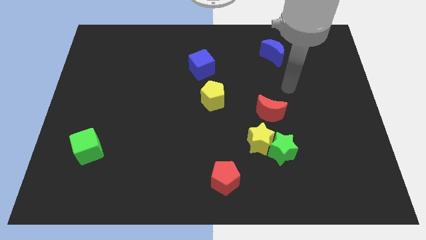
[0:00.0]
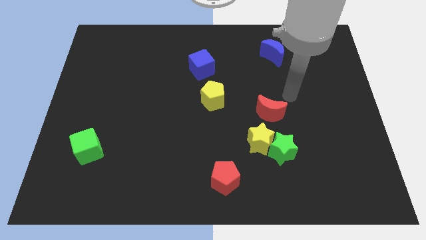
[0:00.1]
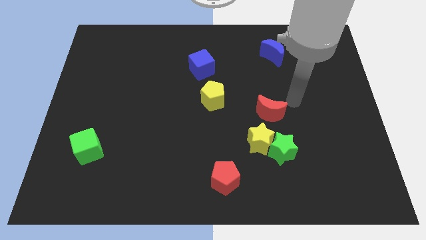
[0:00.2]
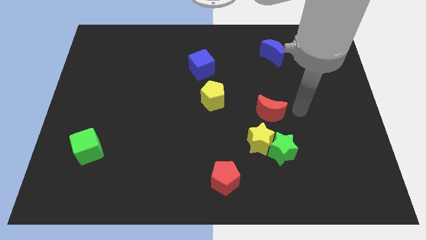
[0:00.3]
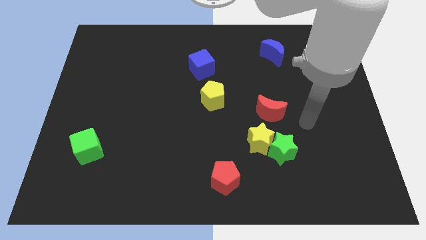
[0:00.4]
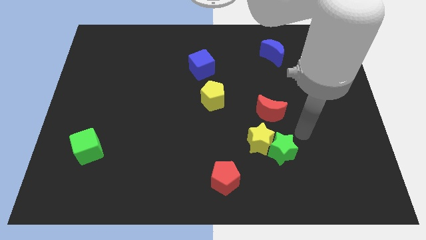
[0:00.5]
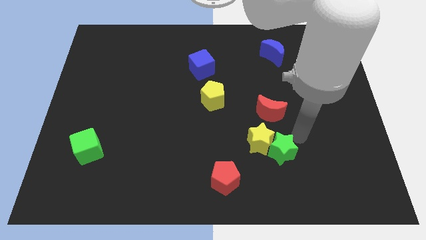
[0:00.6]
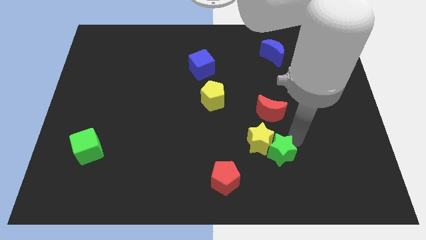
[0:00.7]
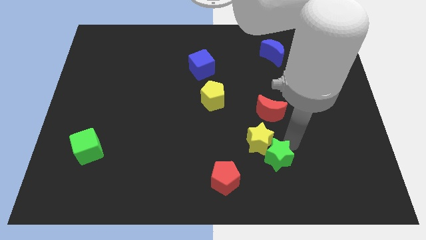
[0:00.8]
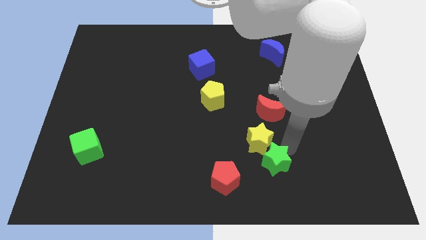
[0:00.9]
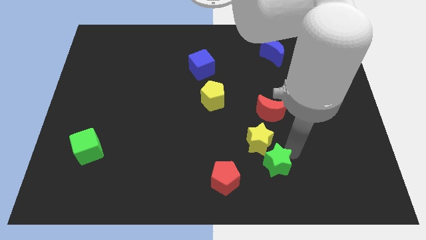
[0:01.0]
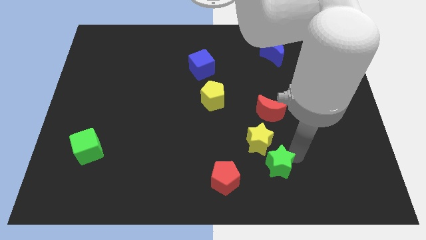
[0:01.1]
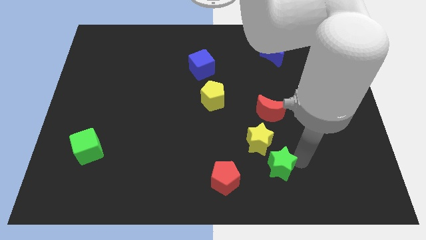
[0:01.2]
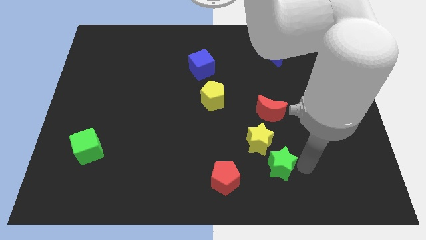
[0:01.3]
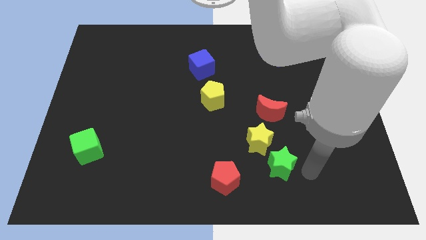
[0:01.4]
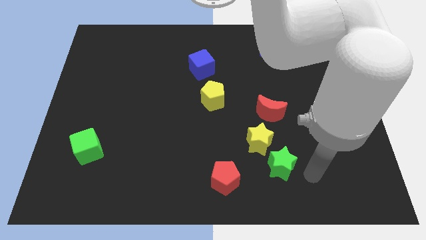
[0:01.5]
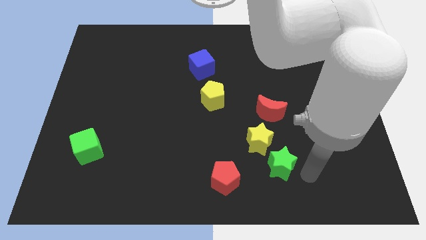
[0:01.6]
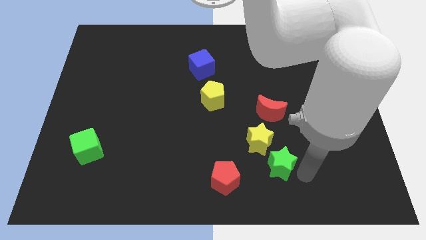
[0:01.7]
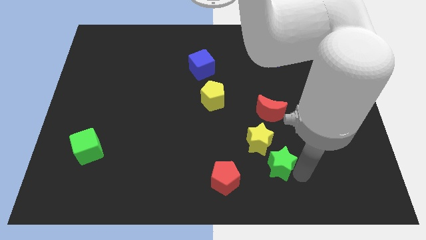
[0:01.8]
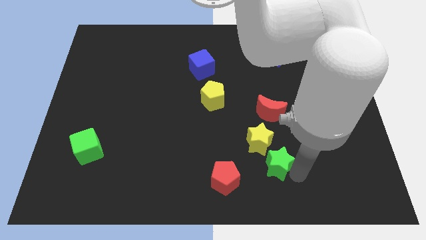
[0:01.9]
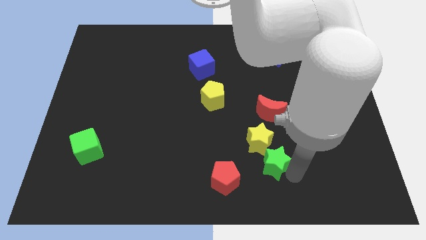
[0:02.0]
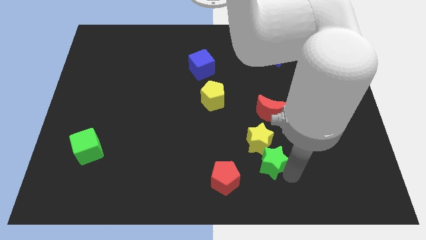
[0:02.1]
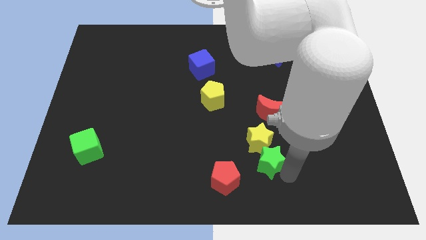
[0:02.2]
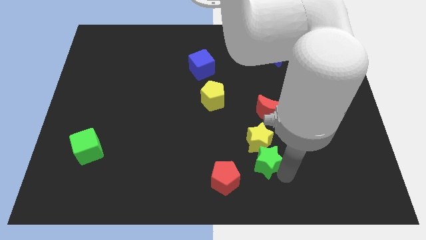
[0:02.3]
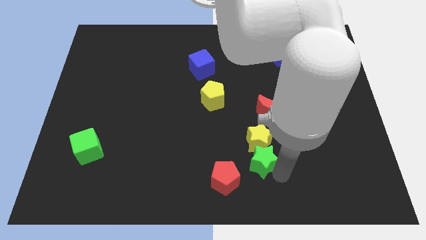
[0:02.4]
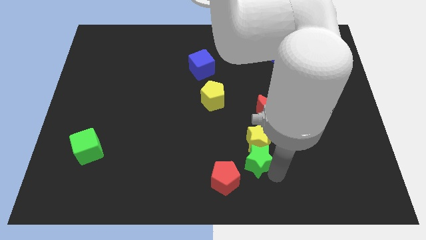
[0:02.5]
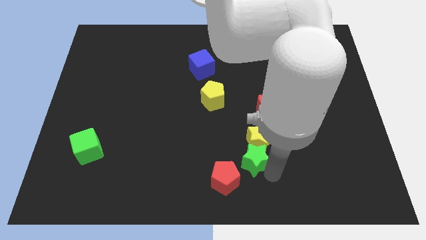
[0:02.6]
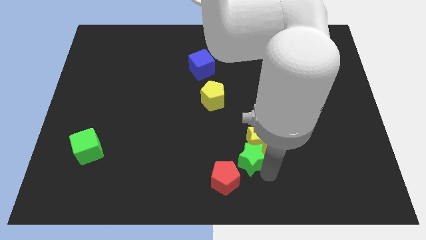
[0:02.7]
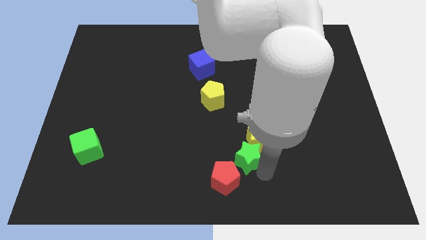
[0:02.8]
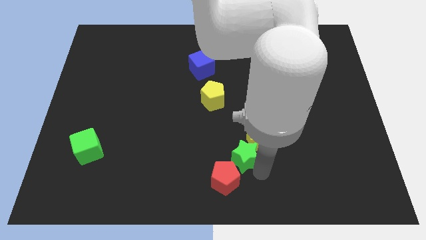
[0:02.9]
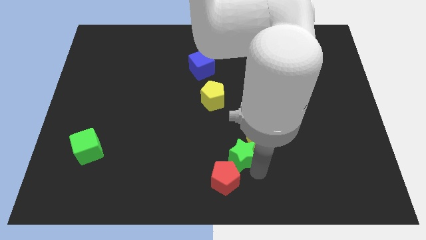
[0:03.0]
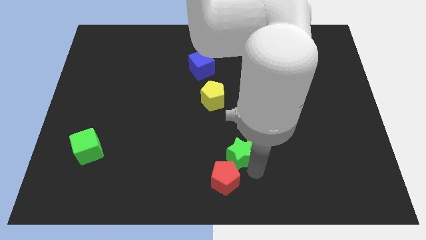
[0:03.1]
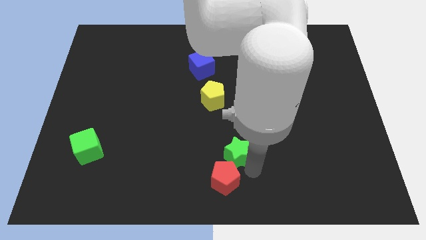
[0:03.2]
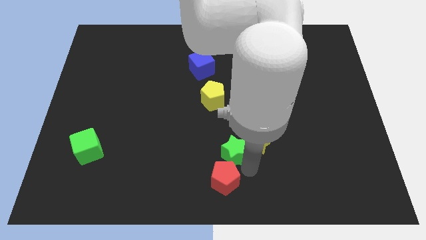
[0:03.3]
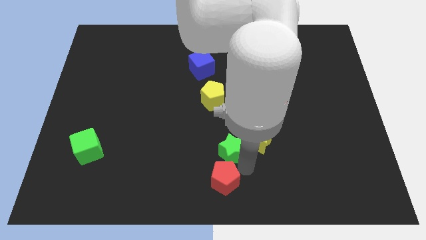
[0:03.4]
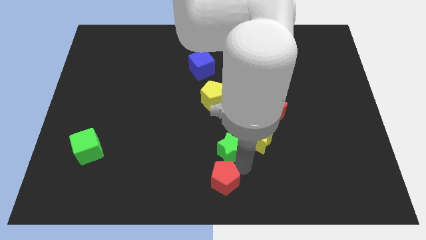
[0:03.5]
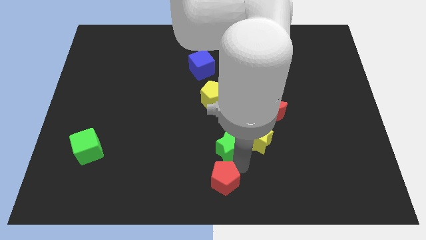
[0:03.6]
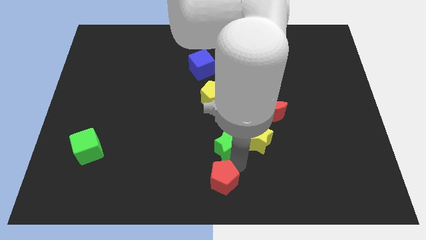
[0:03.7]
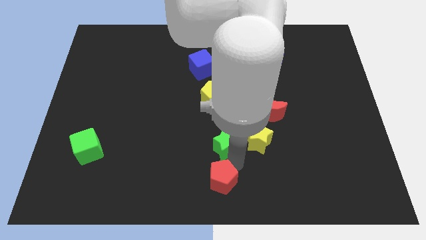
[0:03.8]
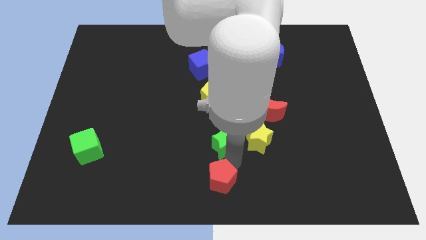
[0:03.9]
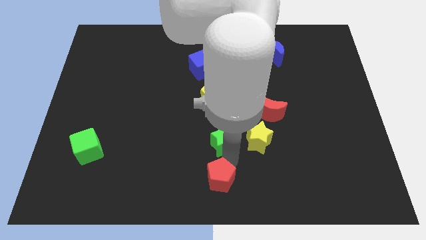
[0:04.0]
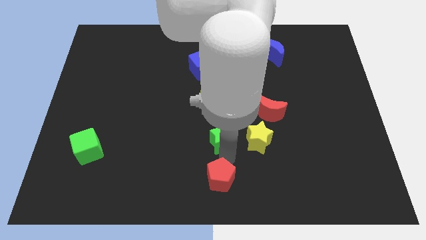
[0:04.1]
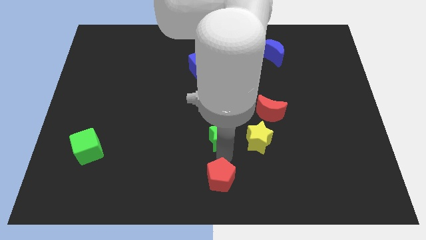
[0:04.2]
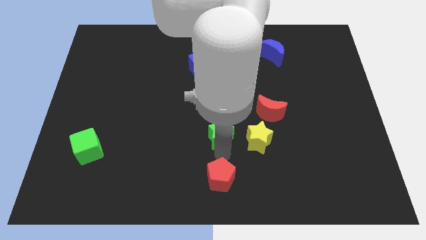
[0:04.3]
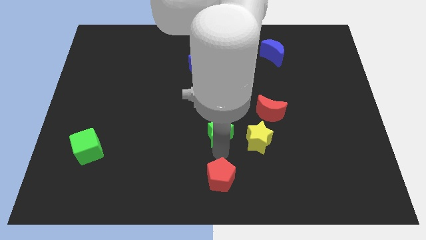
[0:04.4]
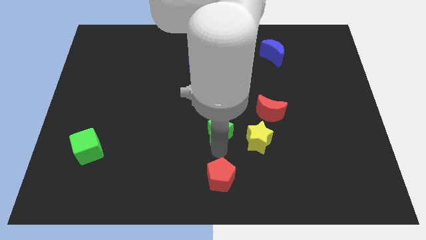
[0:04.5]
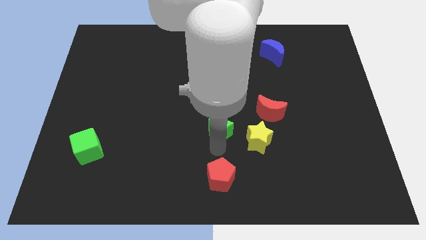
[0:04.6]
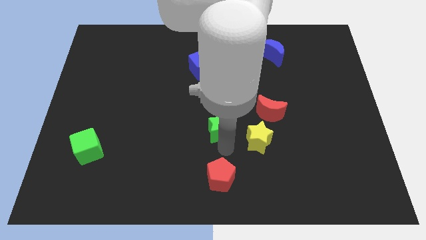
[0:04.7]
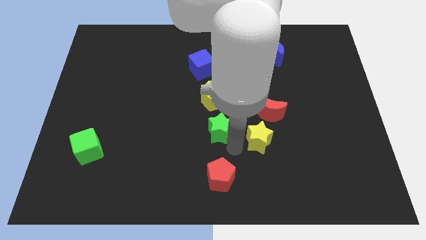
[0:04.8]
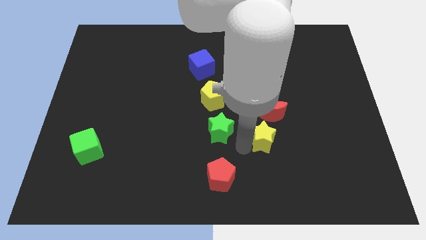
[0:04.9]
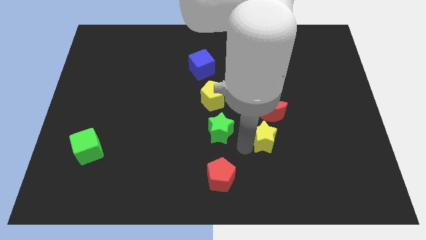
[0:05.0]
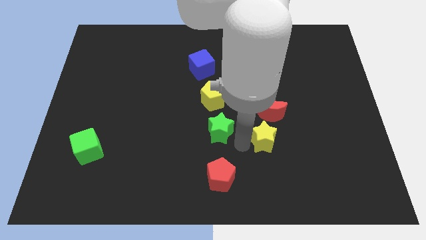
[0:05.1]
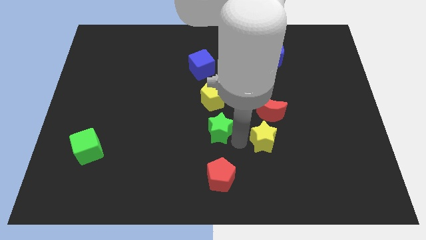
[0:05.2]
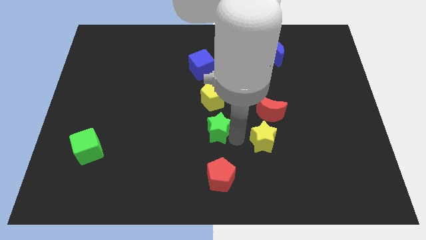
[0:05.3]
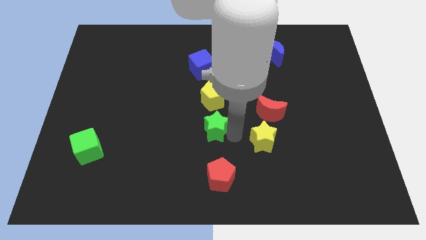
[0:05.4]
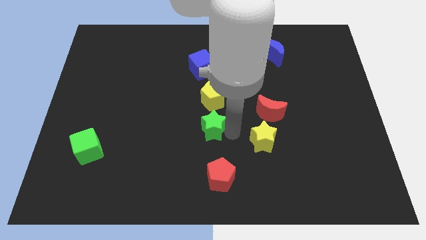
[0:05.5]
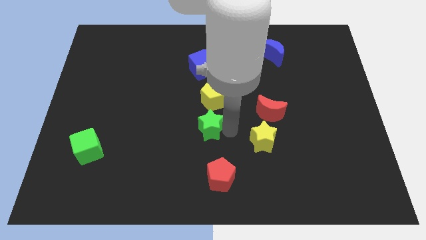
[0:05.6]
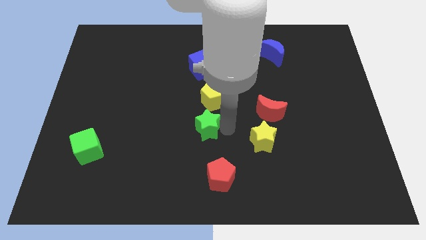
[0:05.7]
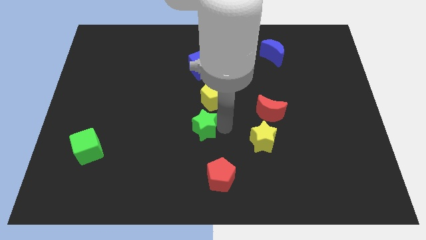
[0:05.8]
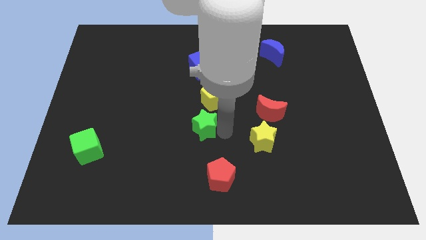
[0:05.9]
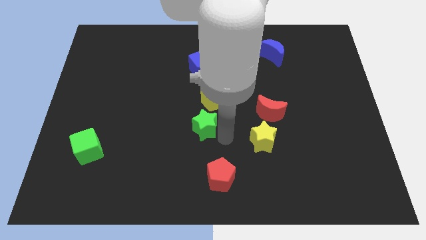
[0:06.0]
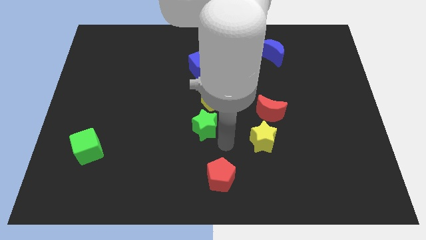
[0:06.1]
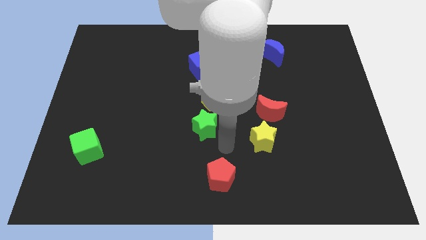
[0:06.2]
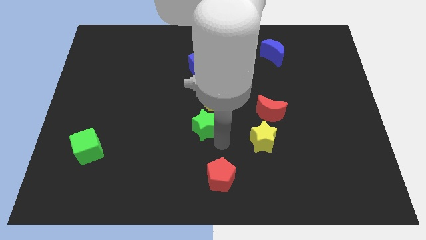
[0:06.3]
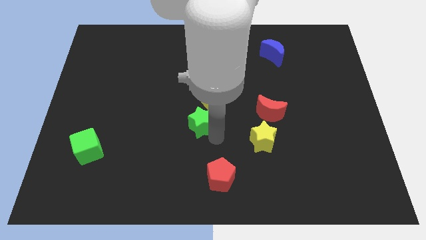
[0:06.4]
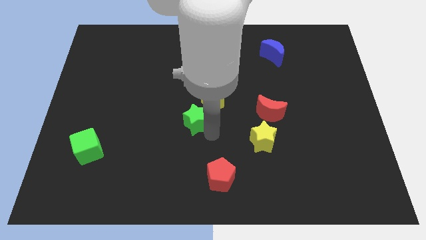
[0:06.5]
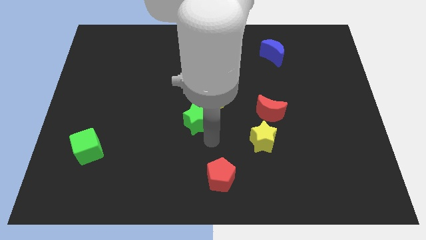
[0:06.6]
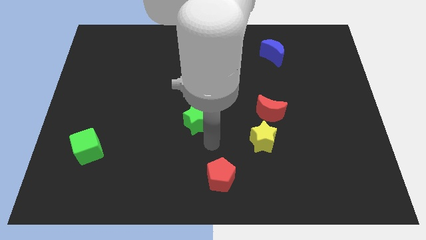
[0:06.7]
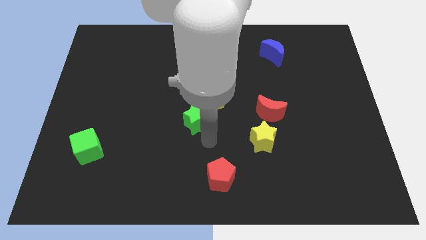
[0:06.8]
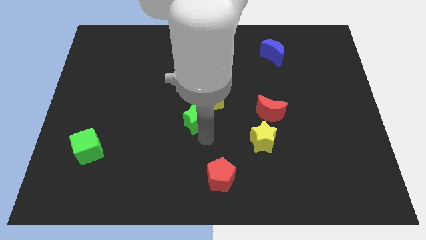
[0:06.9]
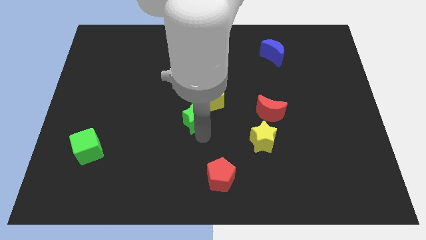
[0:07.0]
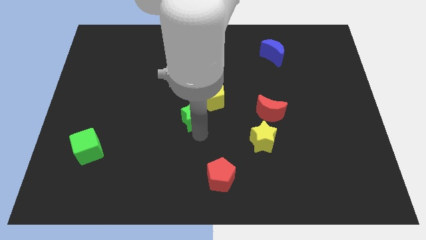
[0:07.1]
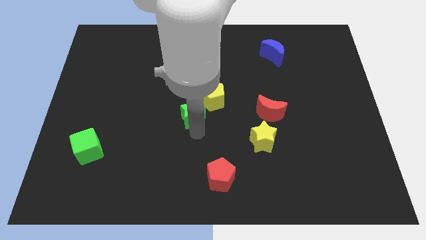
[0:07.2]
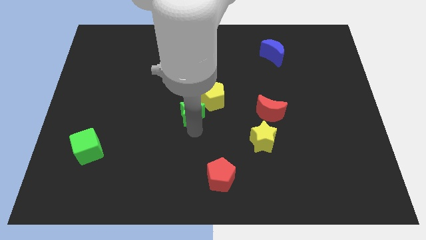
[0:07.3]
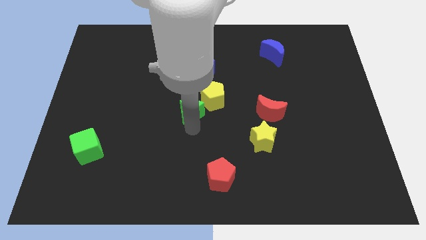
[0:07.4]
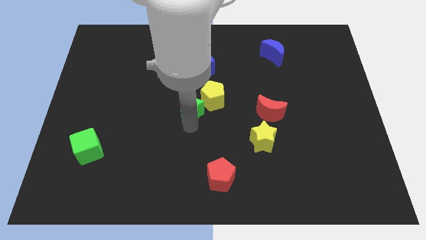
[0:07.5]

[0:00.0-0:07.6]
move the green star up and left

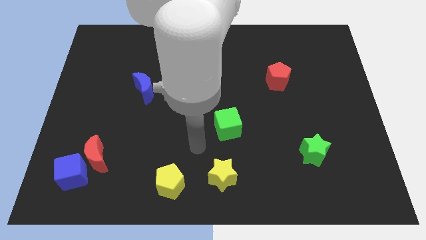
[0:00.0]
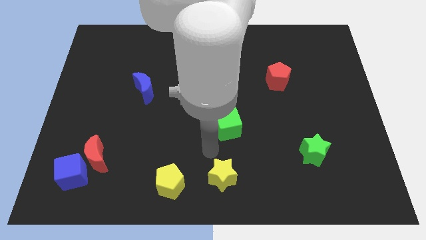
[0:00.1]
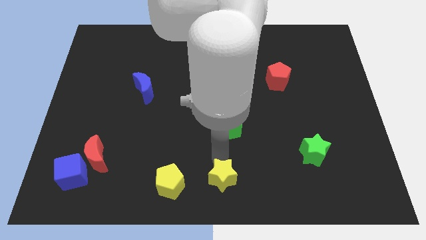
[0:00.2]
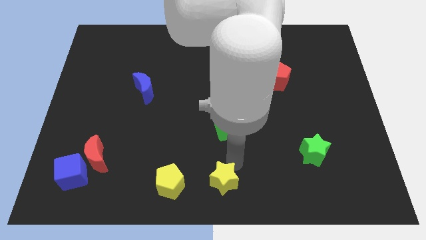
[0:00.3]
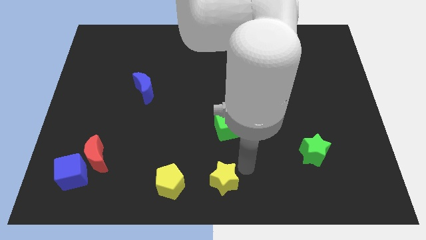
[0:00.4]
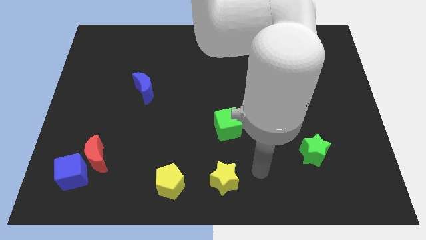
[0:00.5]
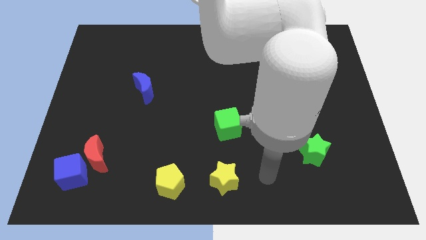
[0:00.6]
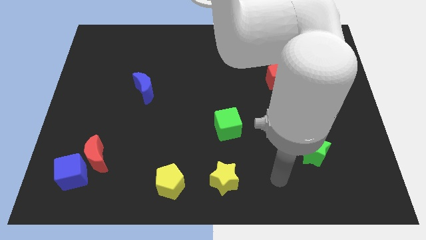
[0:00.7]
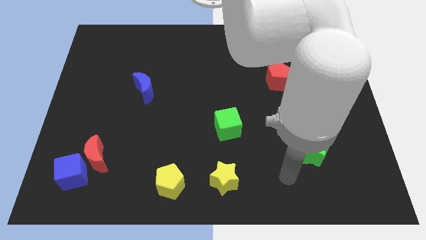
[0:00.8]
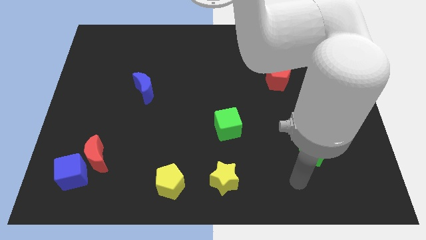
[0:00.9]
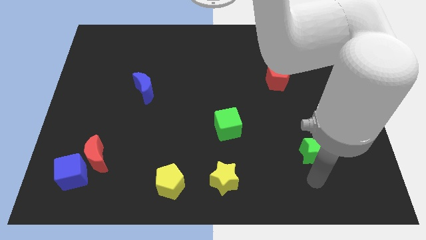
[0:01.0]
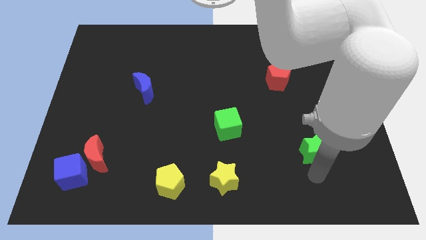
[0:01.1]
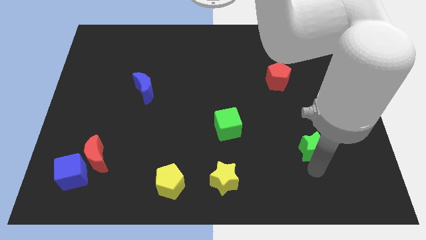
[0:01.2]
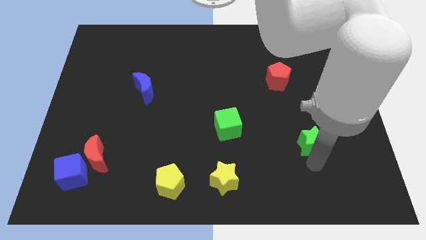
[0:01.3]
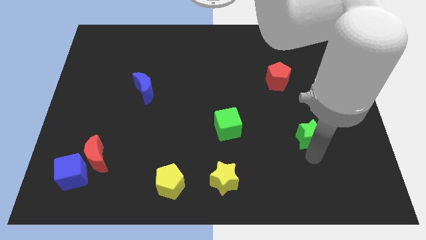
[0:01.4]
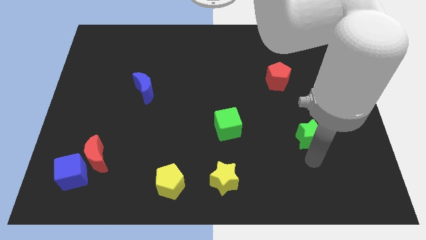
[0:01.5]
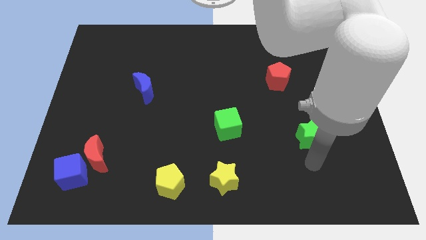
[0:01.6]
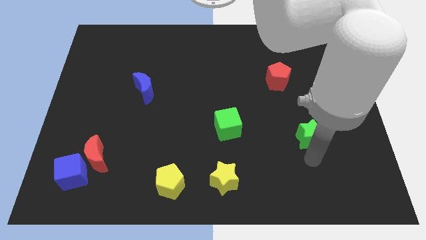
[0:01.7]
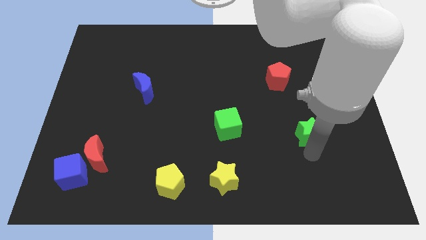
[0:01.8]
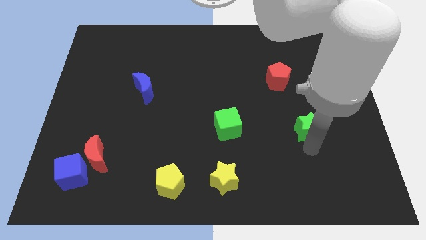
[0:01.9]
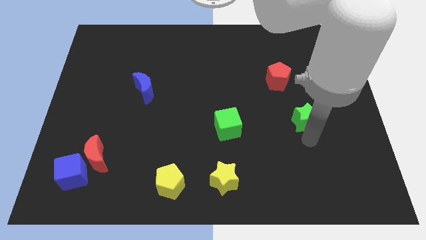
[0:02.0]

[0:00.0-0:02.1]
slightly slide the green star upwards
